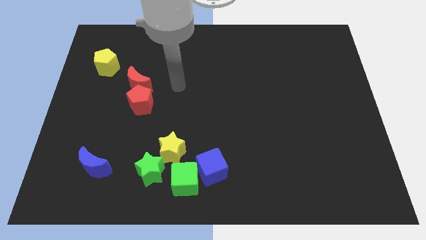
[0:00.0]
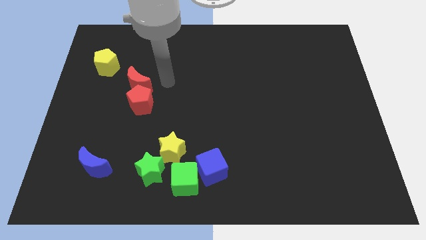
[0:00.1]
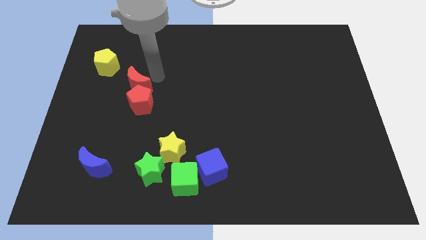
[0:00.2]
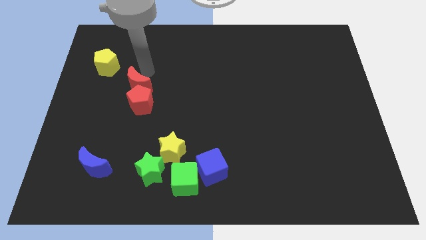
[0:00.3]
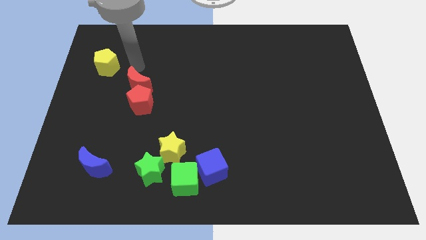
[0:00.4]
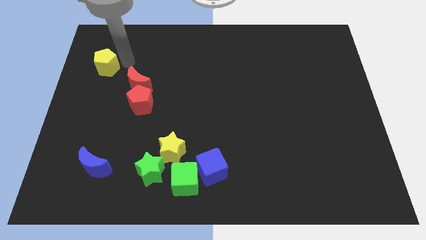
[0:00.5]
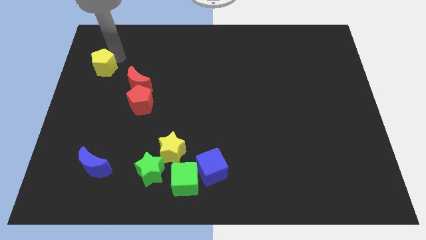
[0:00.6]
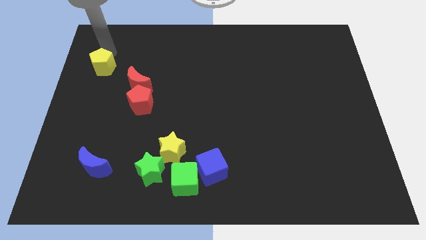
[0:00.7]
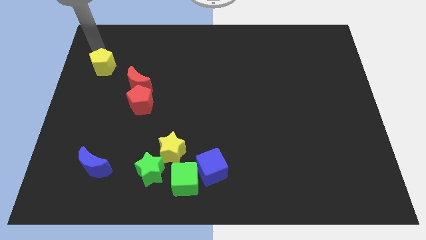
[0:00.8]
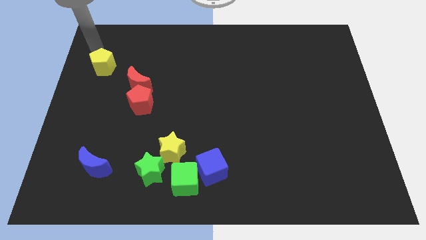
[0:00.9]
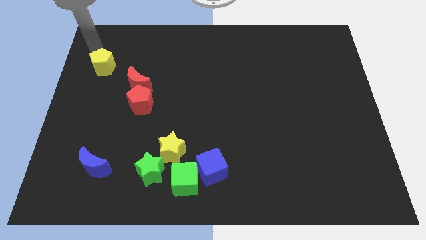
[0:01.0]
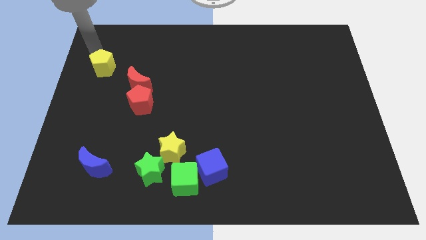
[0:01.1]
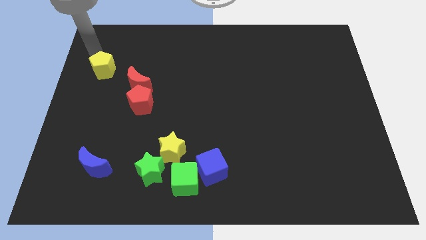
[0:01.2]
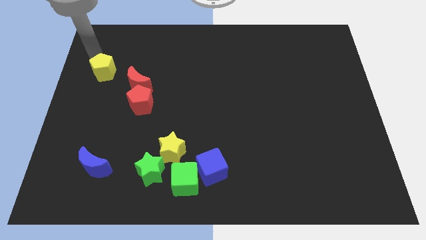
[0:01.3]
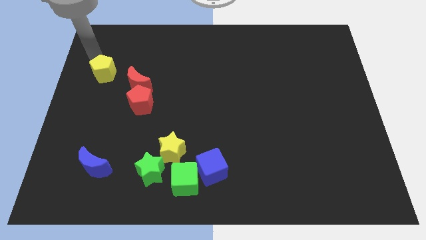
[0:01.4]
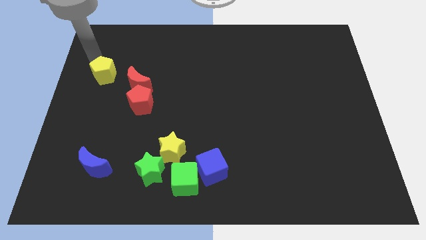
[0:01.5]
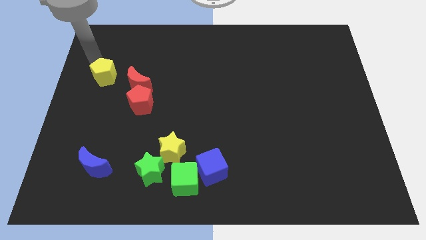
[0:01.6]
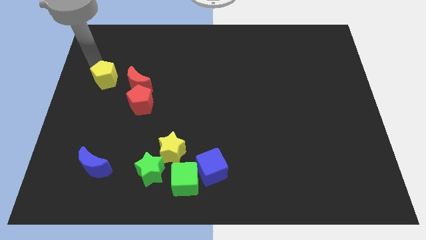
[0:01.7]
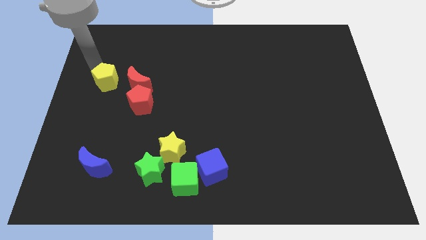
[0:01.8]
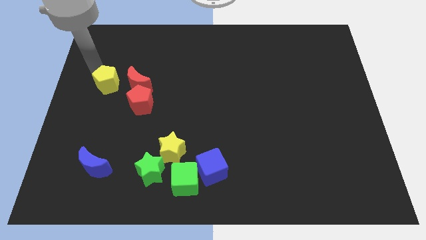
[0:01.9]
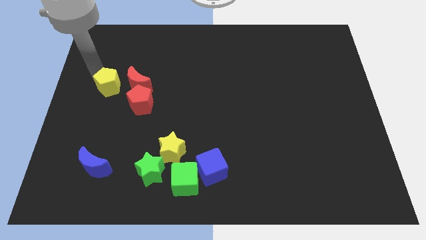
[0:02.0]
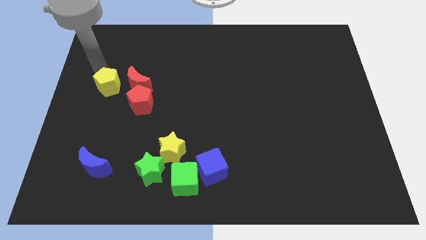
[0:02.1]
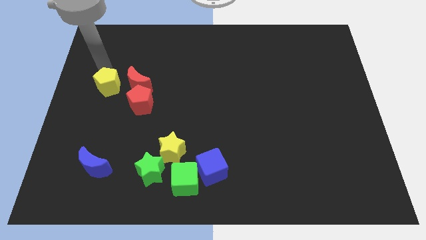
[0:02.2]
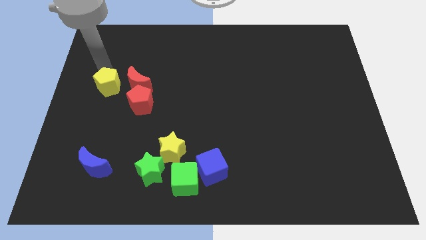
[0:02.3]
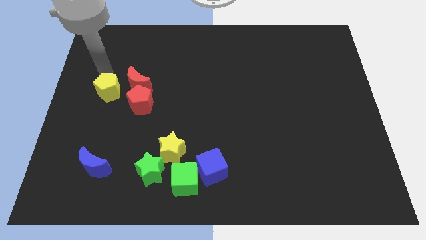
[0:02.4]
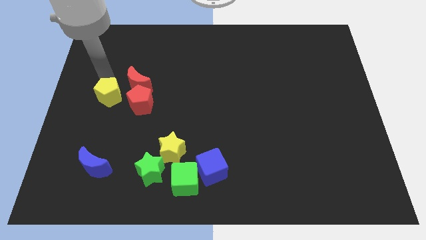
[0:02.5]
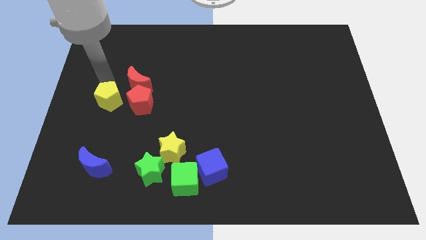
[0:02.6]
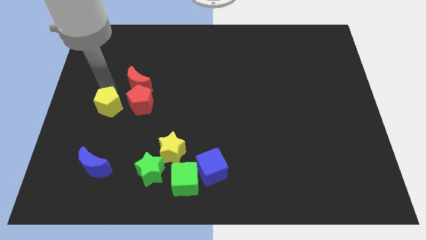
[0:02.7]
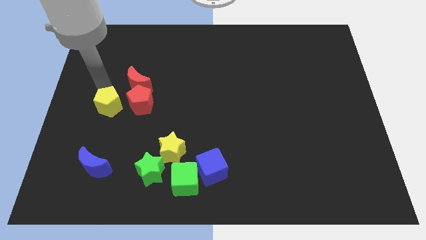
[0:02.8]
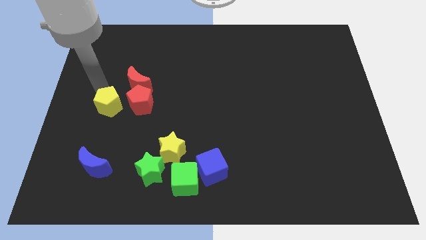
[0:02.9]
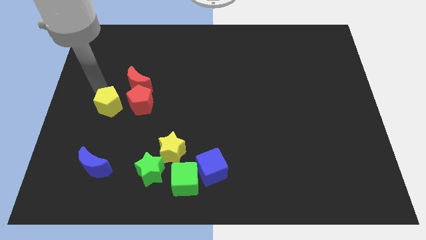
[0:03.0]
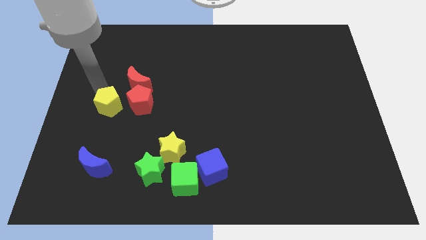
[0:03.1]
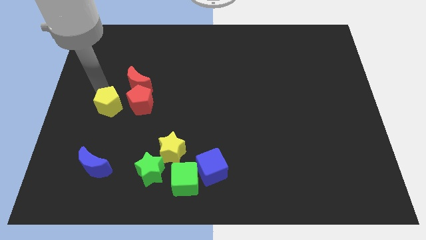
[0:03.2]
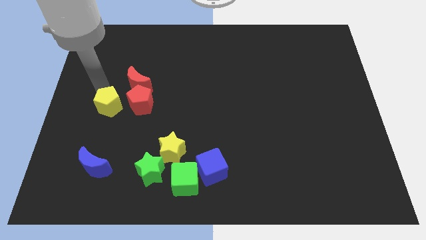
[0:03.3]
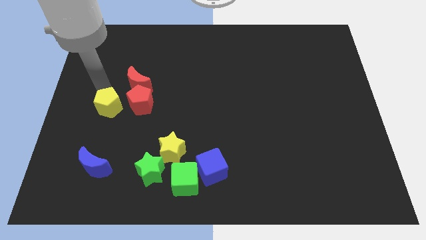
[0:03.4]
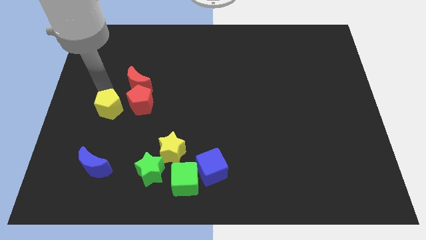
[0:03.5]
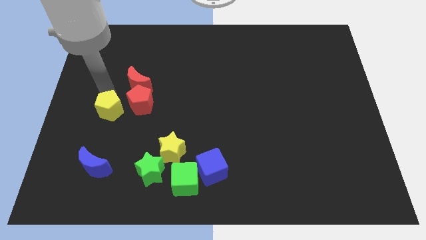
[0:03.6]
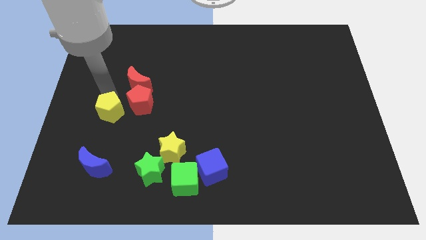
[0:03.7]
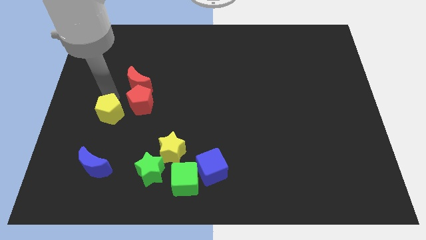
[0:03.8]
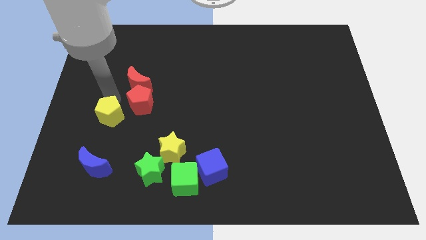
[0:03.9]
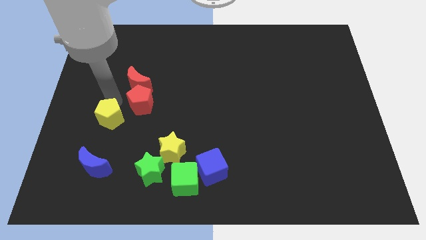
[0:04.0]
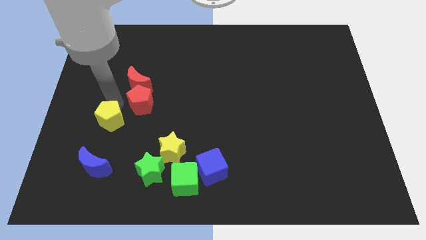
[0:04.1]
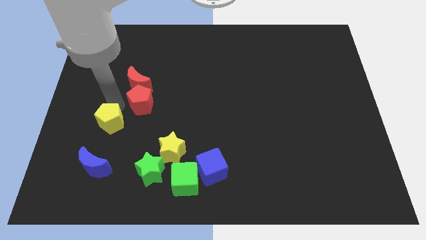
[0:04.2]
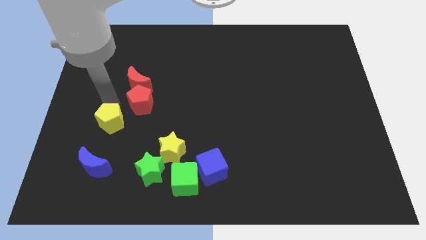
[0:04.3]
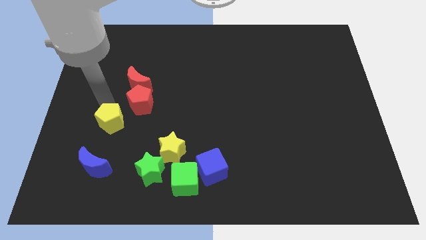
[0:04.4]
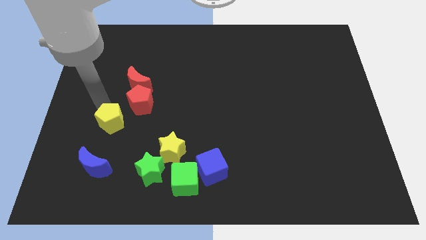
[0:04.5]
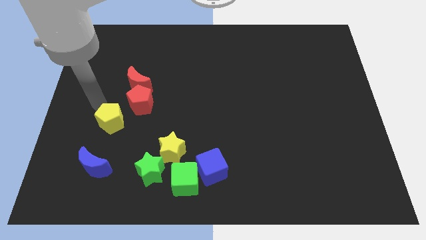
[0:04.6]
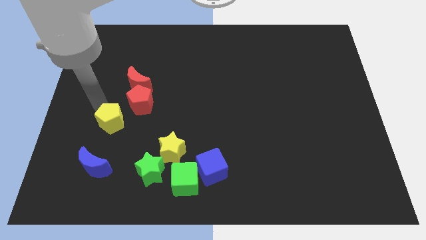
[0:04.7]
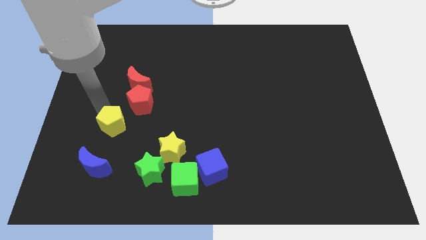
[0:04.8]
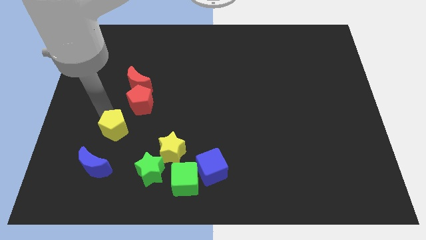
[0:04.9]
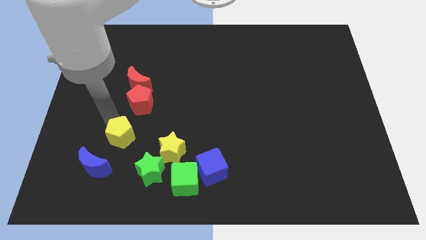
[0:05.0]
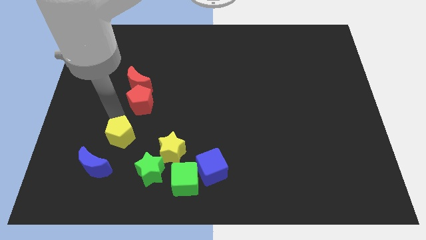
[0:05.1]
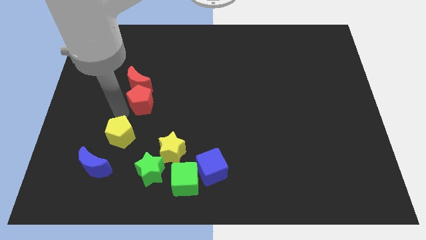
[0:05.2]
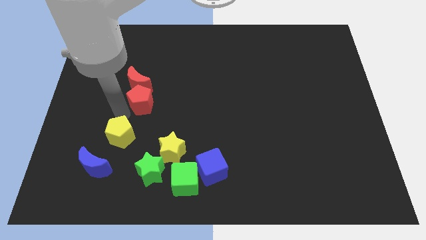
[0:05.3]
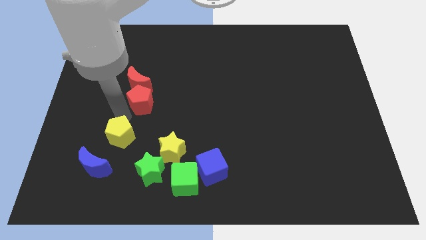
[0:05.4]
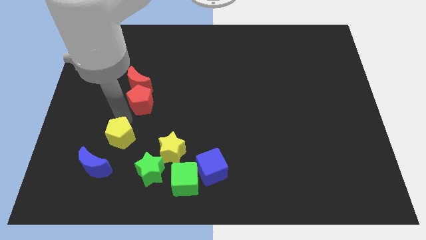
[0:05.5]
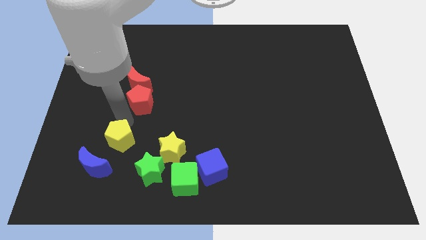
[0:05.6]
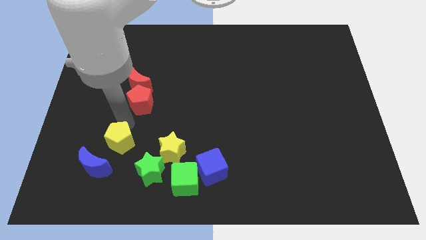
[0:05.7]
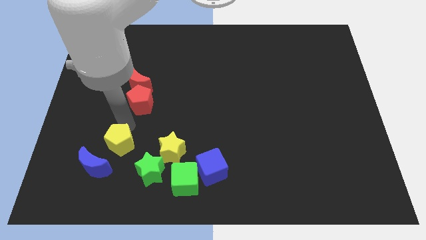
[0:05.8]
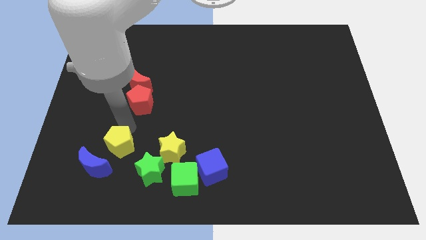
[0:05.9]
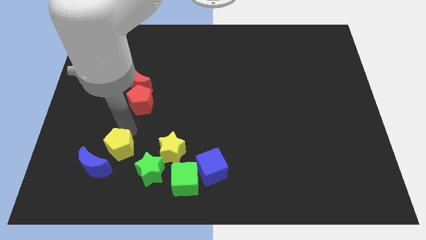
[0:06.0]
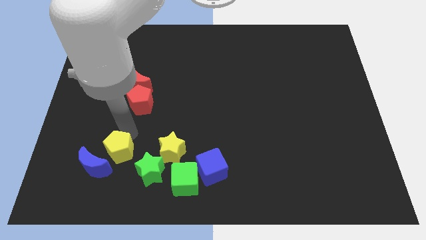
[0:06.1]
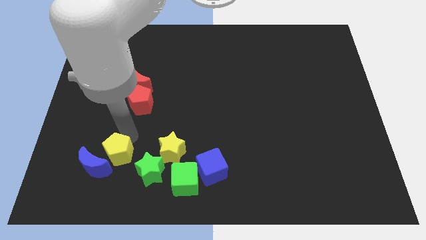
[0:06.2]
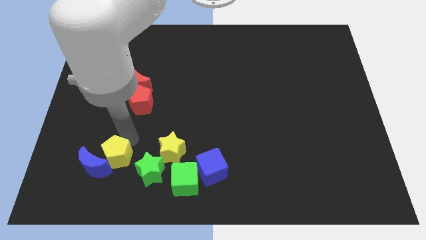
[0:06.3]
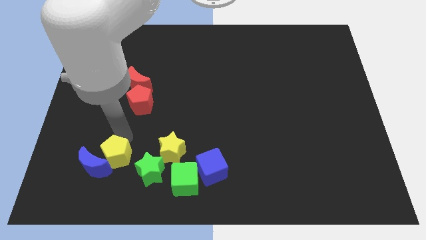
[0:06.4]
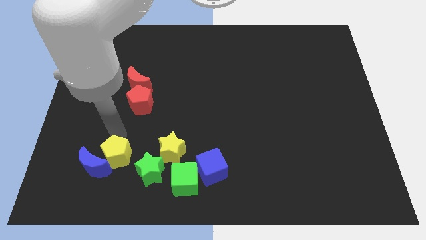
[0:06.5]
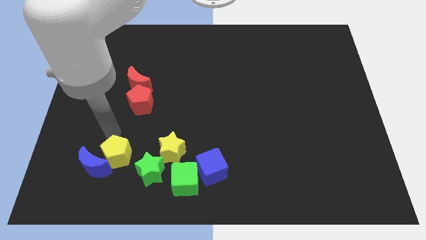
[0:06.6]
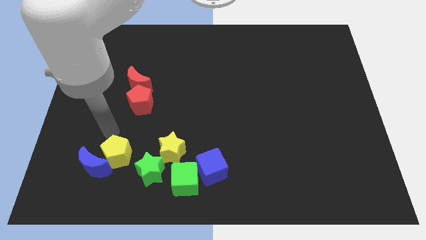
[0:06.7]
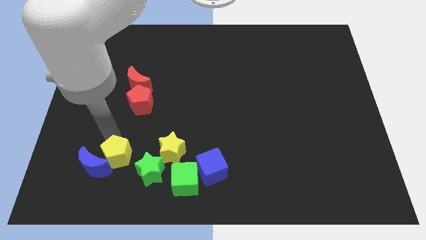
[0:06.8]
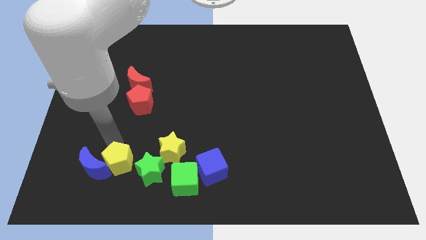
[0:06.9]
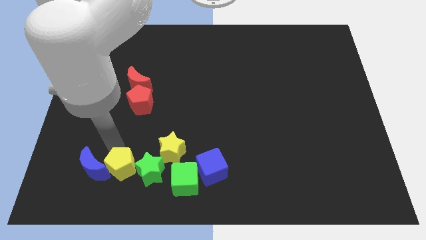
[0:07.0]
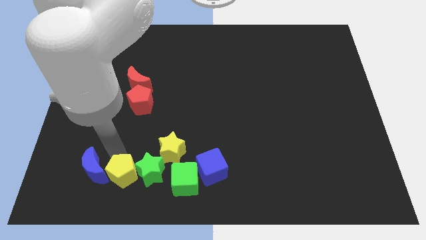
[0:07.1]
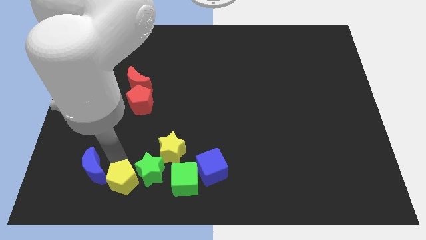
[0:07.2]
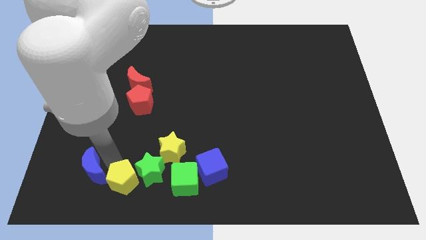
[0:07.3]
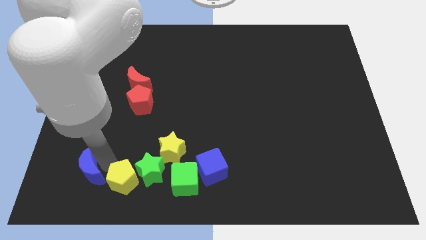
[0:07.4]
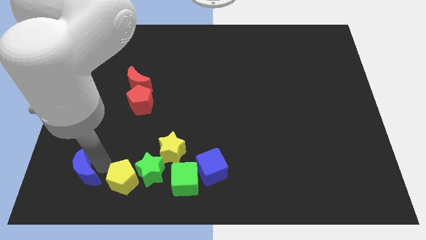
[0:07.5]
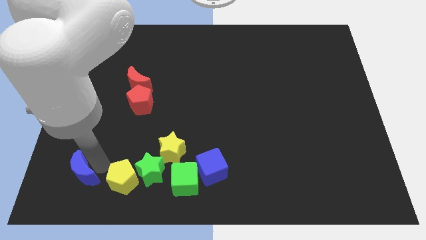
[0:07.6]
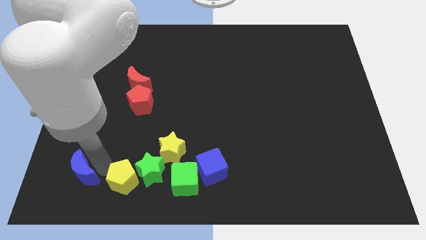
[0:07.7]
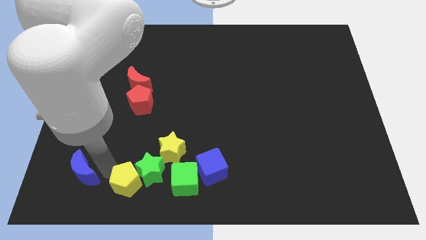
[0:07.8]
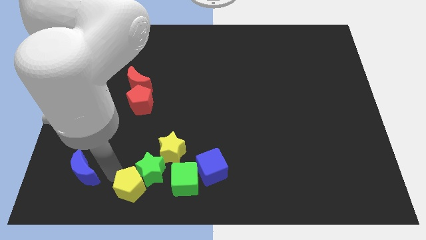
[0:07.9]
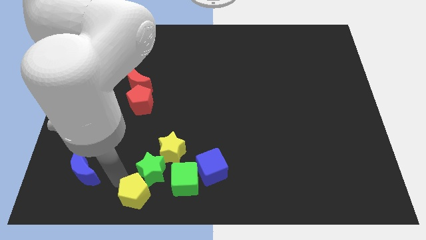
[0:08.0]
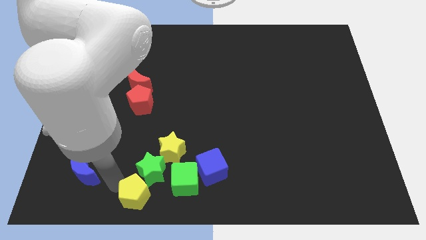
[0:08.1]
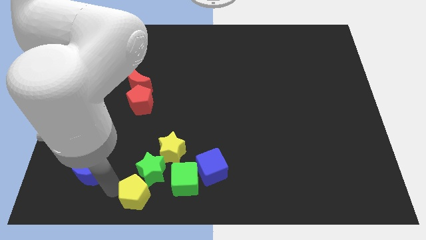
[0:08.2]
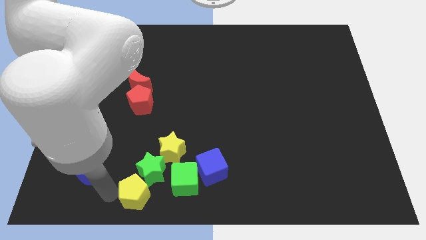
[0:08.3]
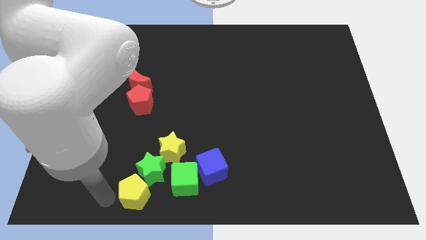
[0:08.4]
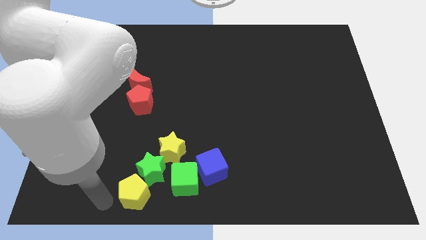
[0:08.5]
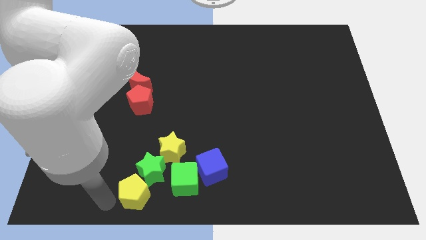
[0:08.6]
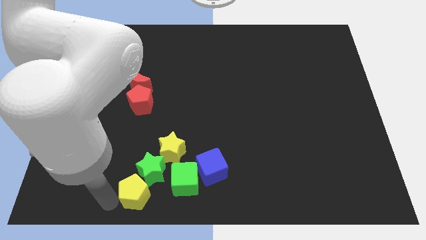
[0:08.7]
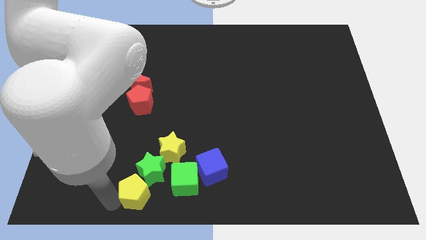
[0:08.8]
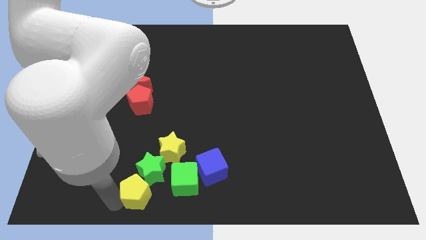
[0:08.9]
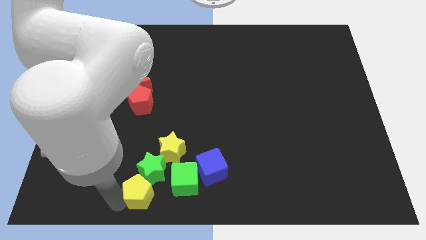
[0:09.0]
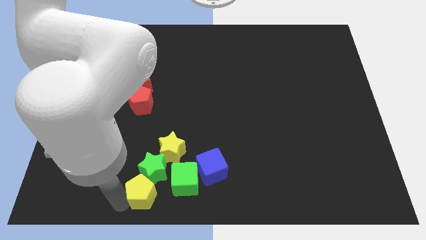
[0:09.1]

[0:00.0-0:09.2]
push the yellow pentagon to the bottom
